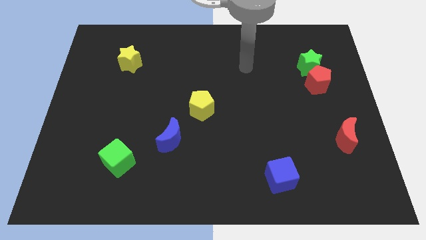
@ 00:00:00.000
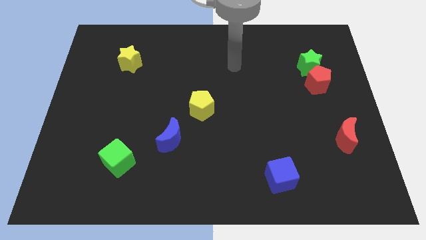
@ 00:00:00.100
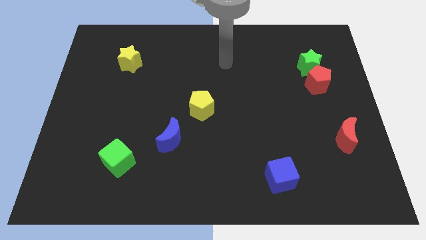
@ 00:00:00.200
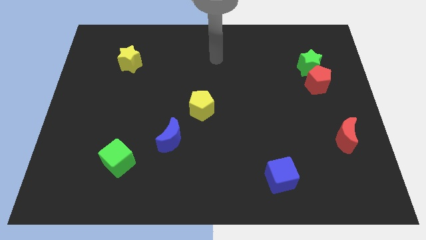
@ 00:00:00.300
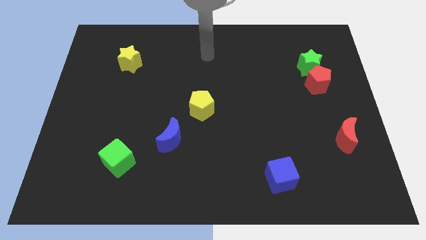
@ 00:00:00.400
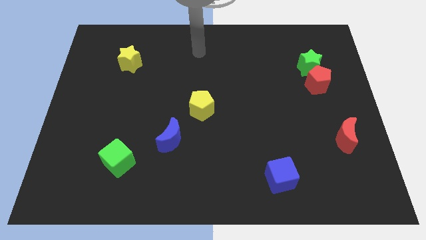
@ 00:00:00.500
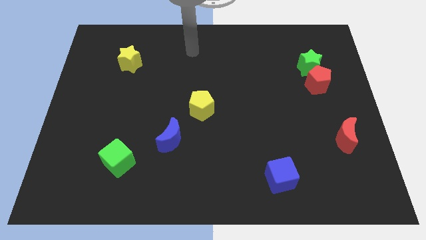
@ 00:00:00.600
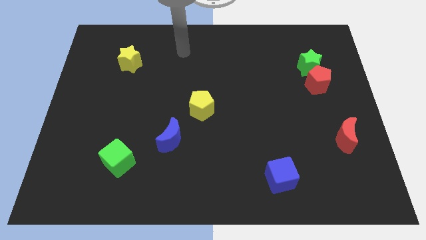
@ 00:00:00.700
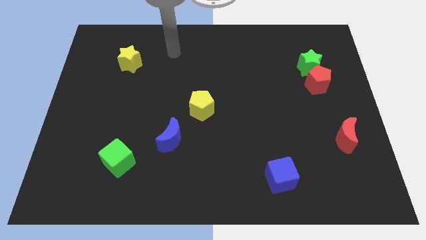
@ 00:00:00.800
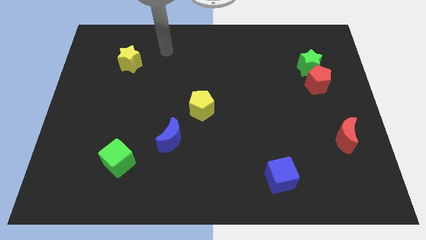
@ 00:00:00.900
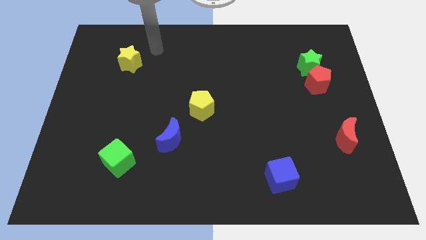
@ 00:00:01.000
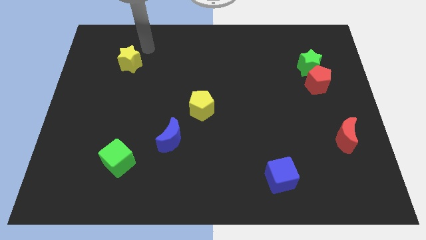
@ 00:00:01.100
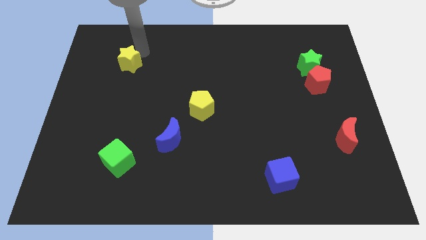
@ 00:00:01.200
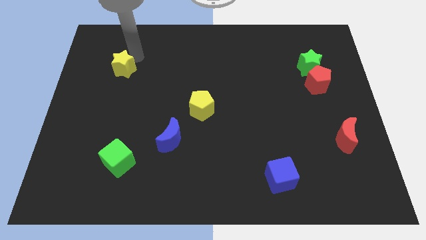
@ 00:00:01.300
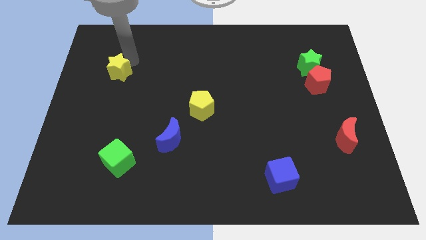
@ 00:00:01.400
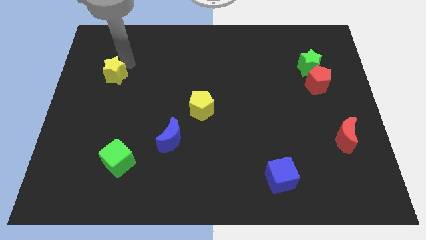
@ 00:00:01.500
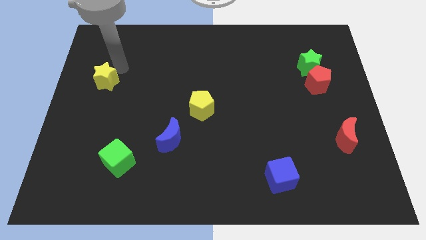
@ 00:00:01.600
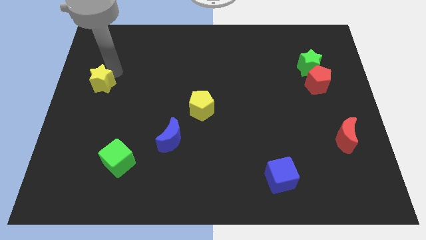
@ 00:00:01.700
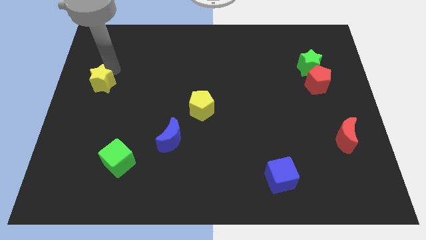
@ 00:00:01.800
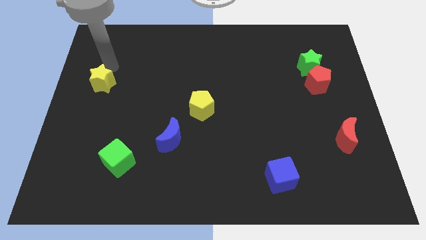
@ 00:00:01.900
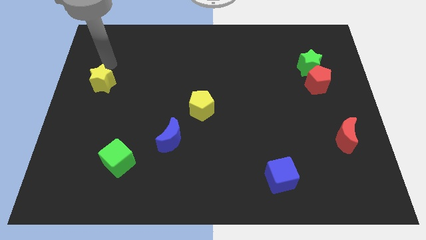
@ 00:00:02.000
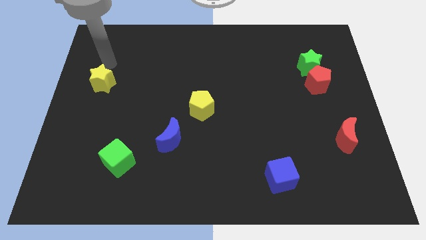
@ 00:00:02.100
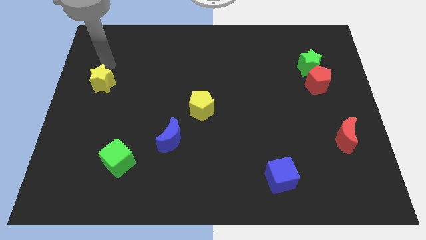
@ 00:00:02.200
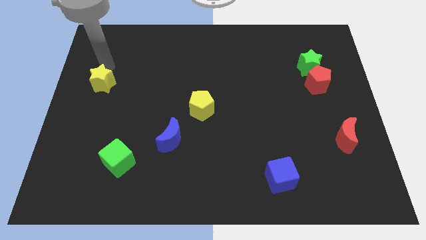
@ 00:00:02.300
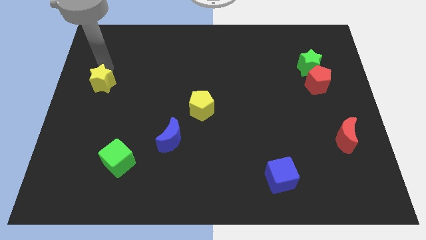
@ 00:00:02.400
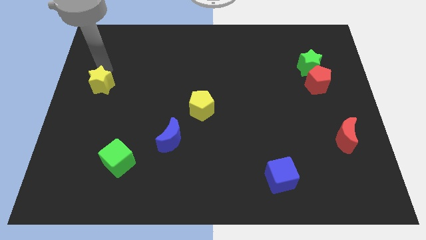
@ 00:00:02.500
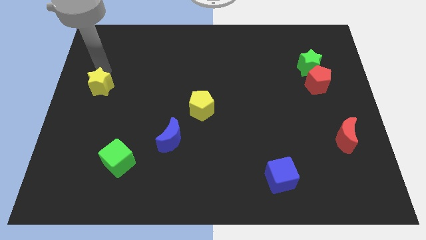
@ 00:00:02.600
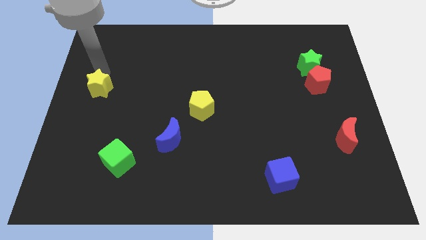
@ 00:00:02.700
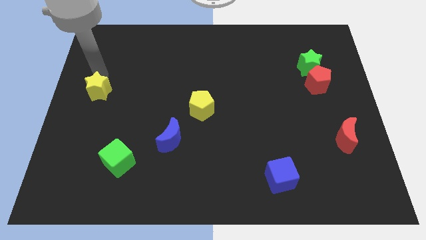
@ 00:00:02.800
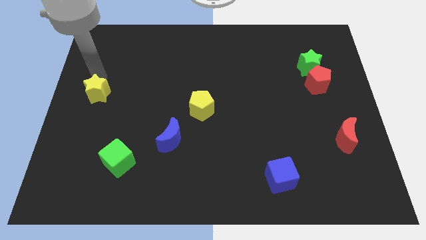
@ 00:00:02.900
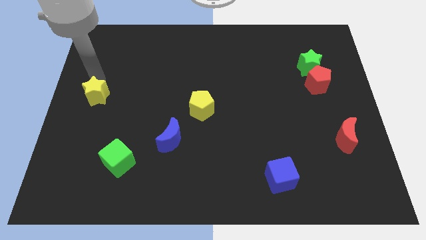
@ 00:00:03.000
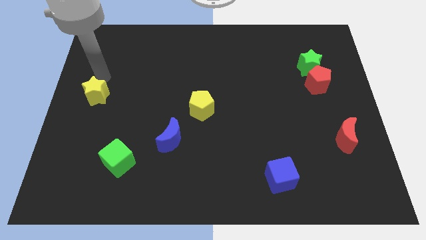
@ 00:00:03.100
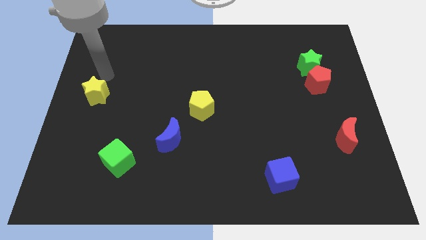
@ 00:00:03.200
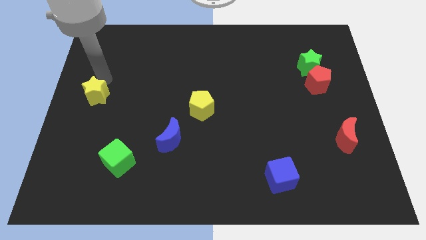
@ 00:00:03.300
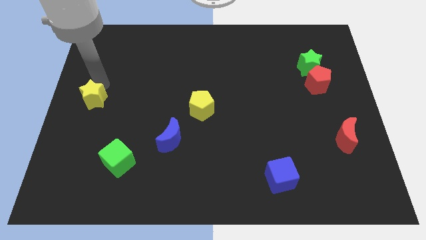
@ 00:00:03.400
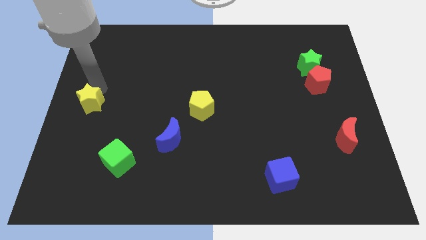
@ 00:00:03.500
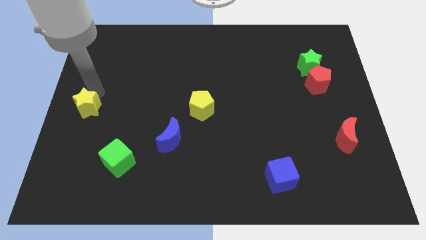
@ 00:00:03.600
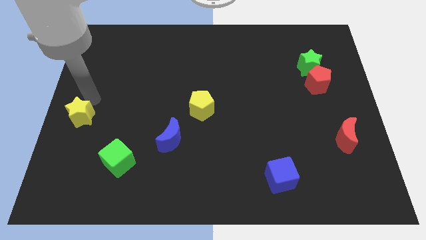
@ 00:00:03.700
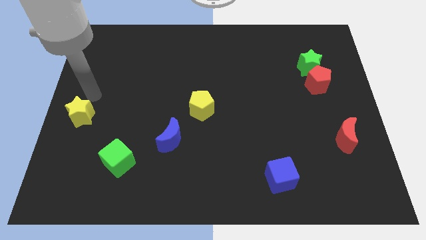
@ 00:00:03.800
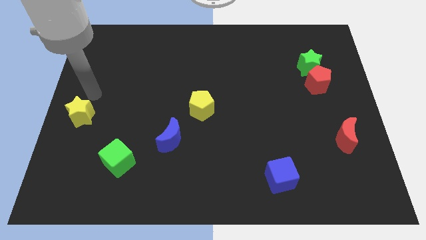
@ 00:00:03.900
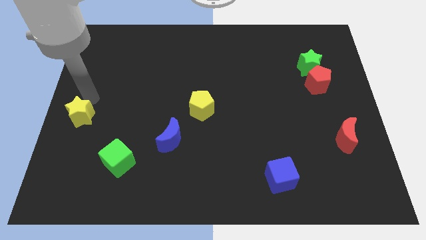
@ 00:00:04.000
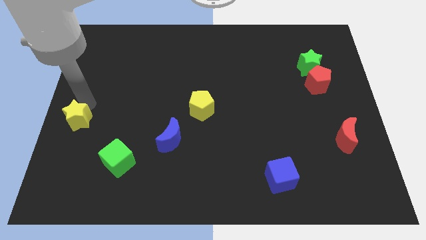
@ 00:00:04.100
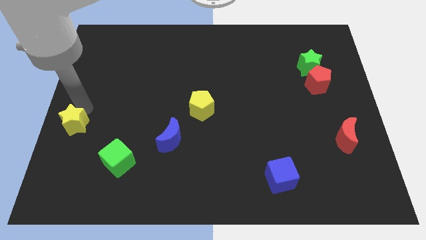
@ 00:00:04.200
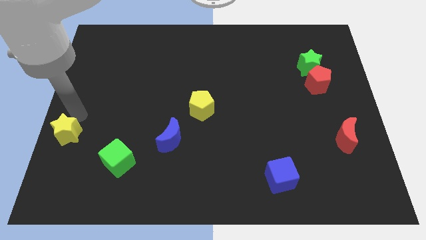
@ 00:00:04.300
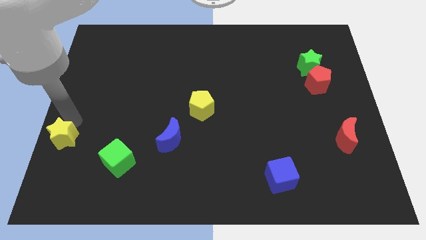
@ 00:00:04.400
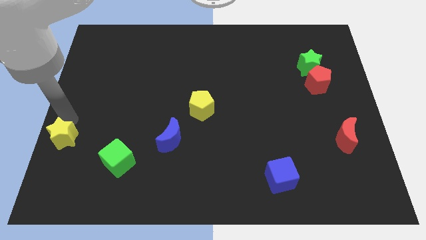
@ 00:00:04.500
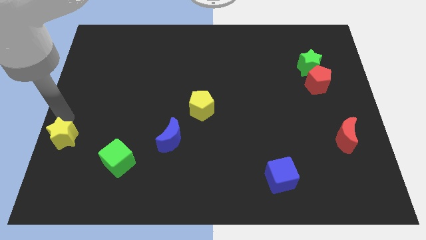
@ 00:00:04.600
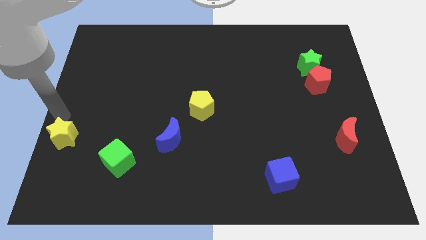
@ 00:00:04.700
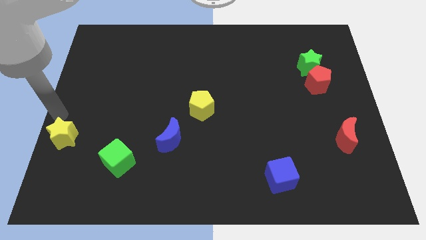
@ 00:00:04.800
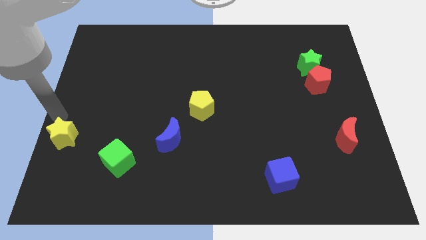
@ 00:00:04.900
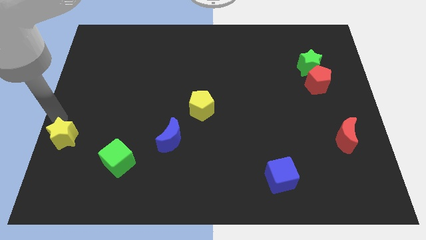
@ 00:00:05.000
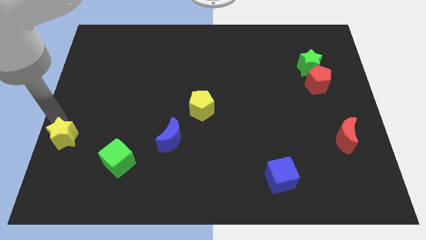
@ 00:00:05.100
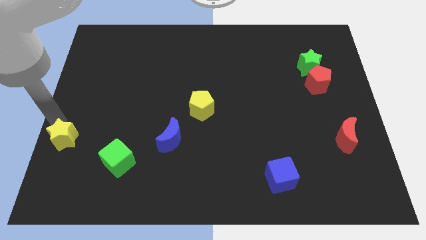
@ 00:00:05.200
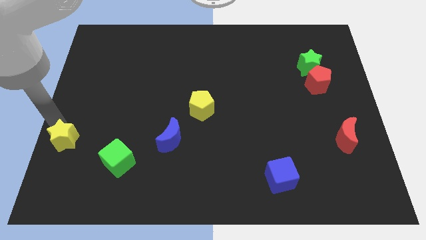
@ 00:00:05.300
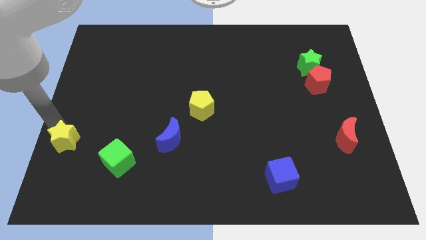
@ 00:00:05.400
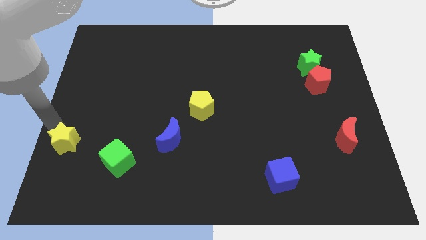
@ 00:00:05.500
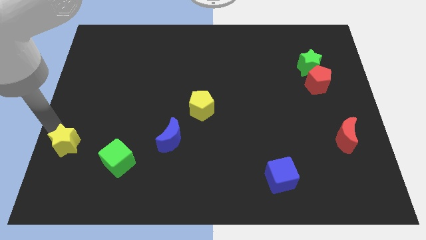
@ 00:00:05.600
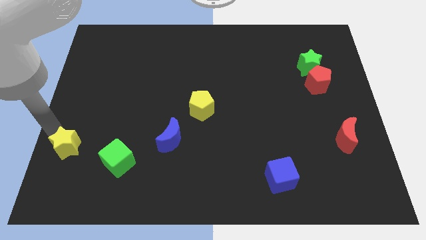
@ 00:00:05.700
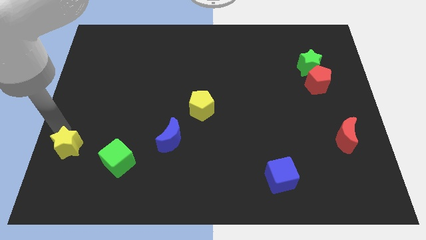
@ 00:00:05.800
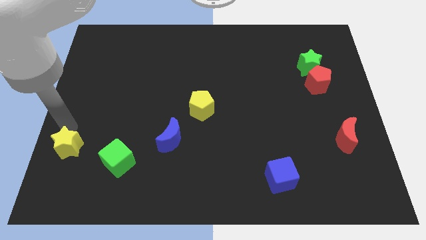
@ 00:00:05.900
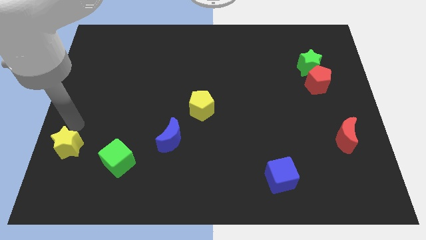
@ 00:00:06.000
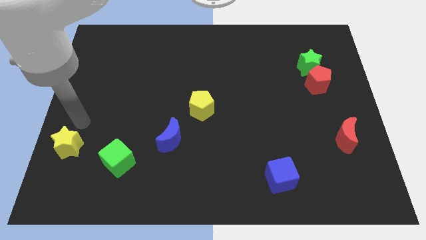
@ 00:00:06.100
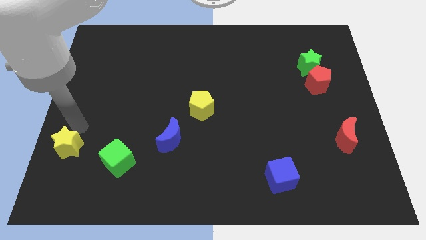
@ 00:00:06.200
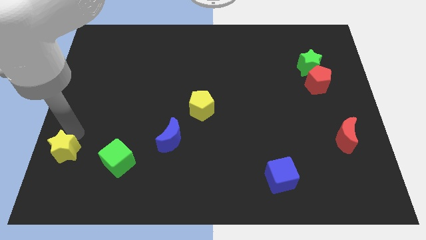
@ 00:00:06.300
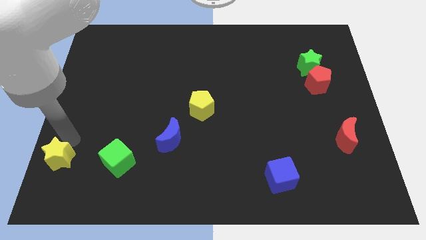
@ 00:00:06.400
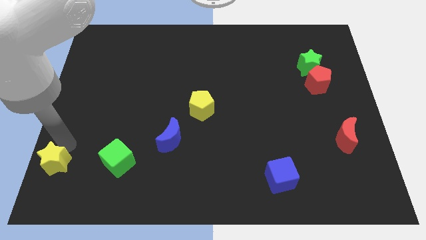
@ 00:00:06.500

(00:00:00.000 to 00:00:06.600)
put the yellow star to the bottom left
